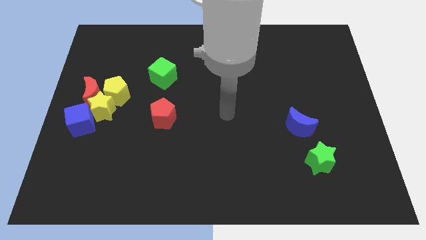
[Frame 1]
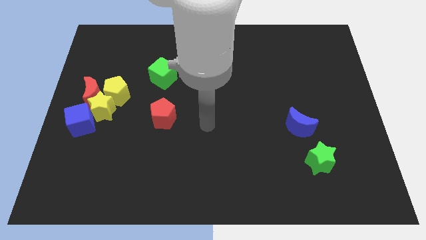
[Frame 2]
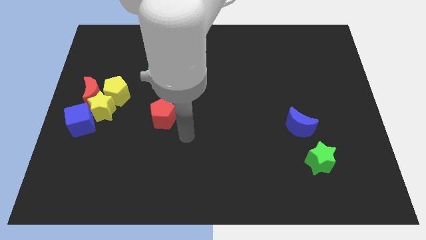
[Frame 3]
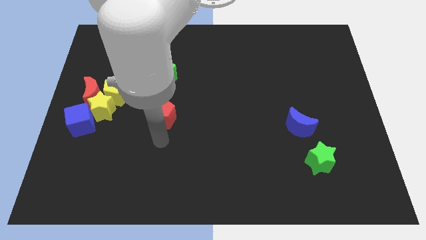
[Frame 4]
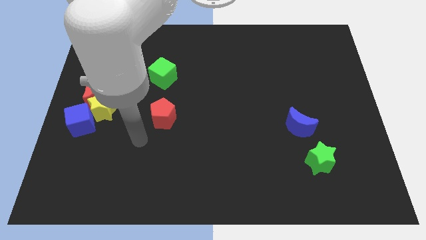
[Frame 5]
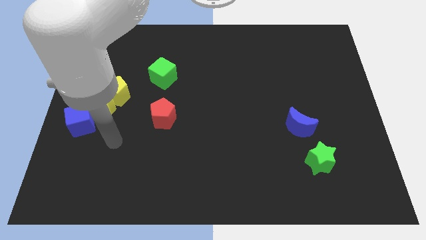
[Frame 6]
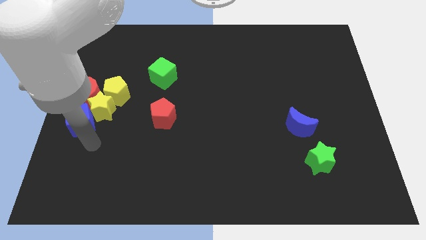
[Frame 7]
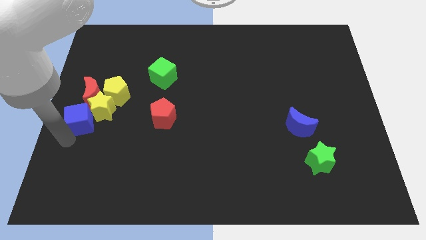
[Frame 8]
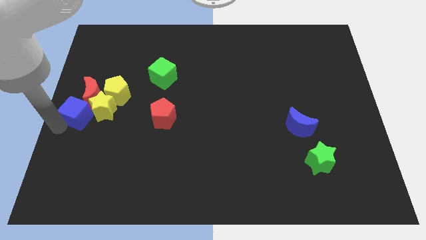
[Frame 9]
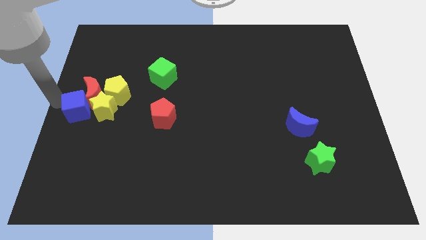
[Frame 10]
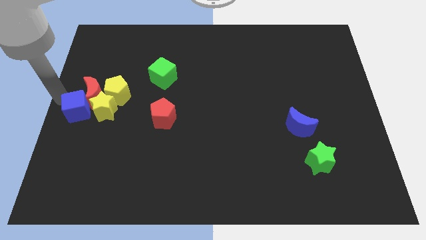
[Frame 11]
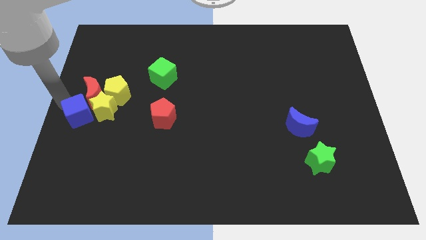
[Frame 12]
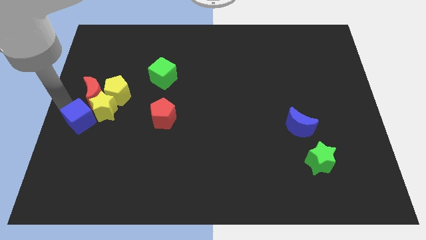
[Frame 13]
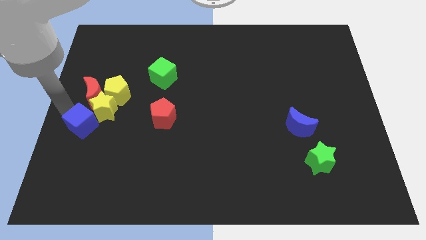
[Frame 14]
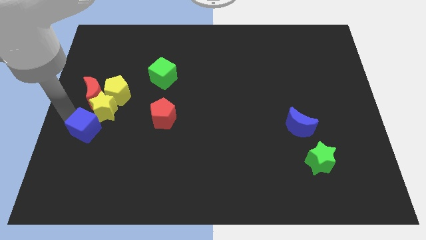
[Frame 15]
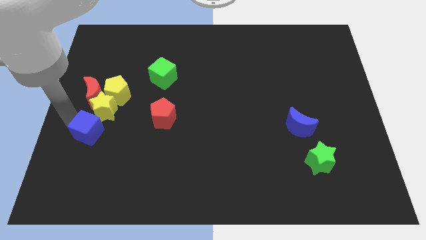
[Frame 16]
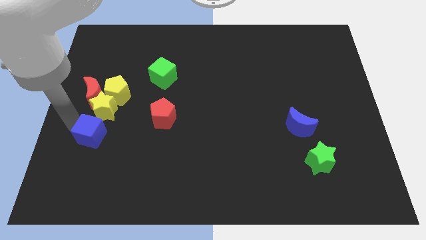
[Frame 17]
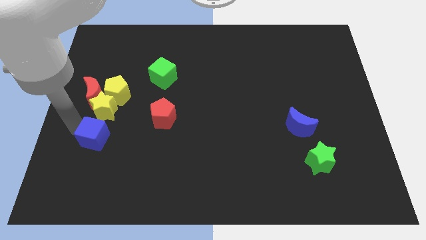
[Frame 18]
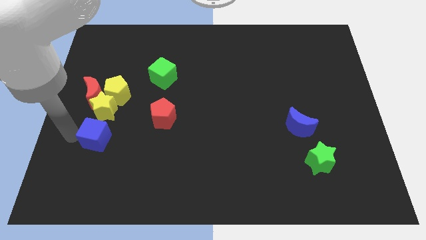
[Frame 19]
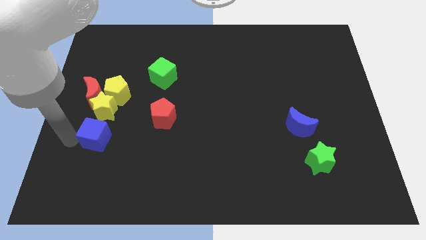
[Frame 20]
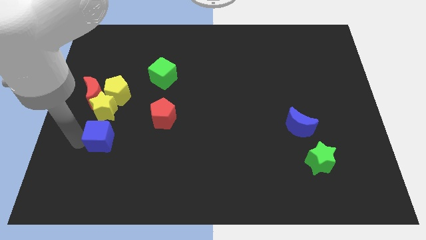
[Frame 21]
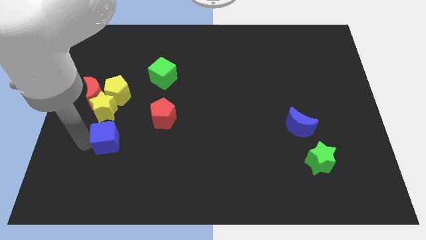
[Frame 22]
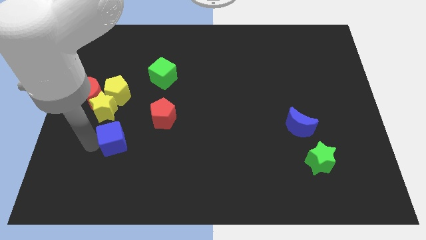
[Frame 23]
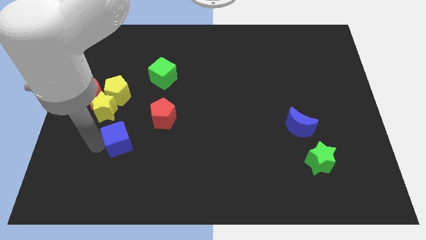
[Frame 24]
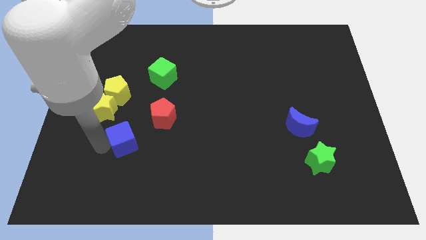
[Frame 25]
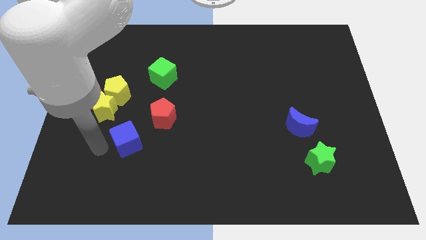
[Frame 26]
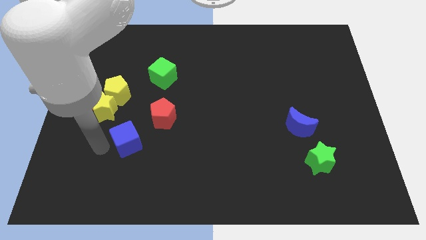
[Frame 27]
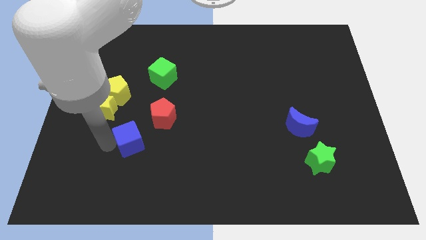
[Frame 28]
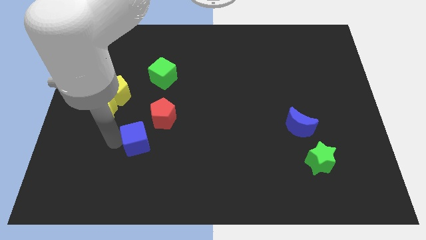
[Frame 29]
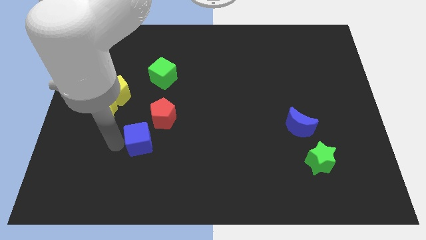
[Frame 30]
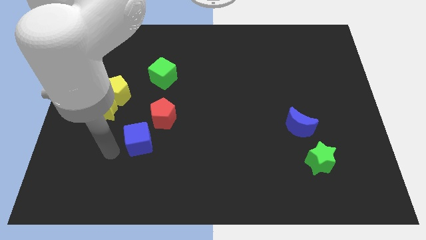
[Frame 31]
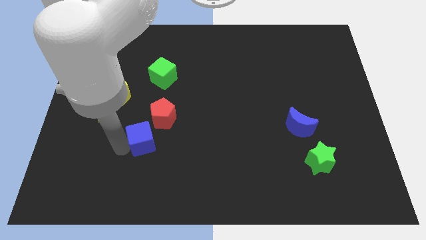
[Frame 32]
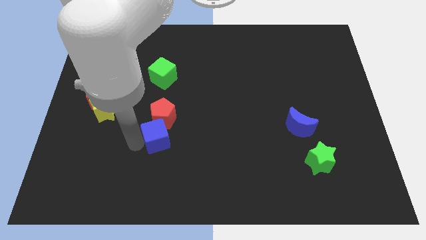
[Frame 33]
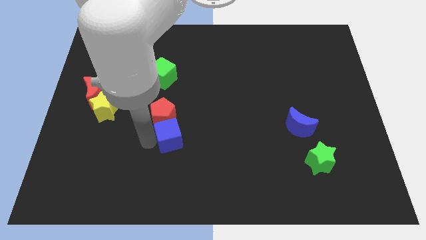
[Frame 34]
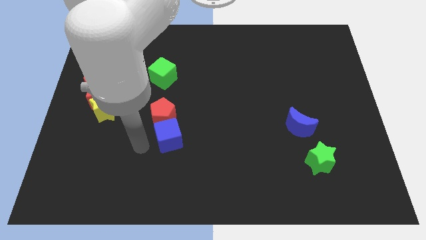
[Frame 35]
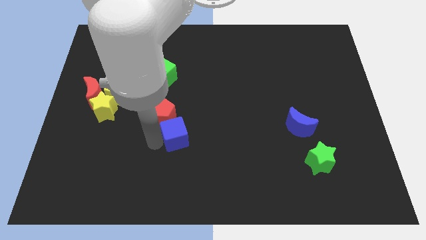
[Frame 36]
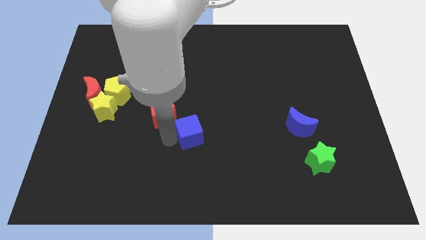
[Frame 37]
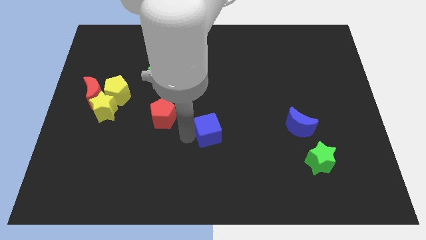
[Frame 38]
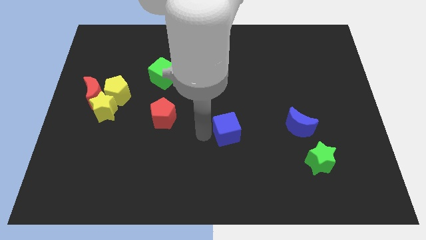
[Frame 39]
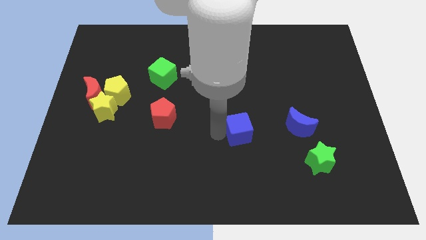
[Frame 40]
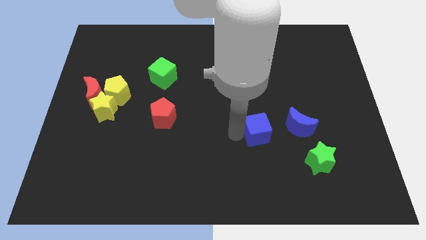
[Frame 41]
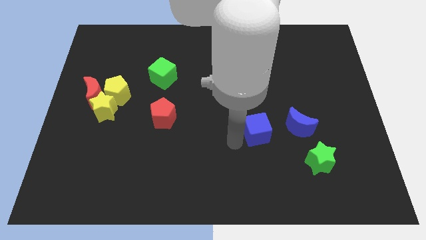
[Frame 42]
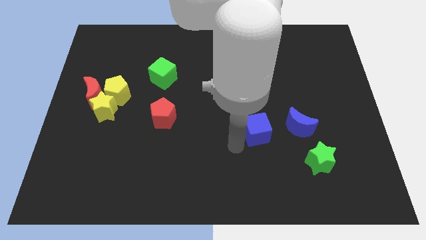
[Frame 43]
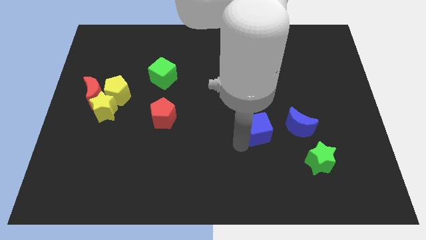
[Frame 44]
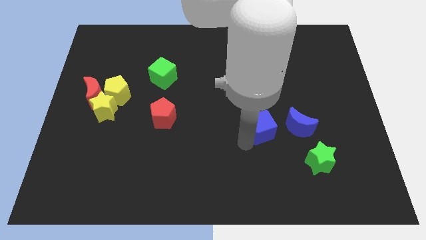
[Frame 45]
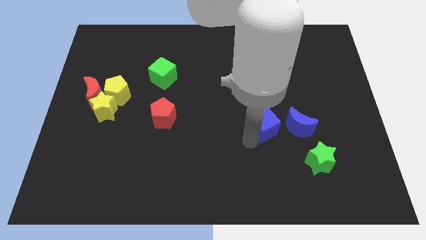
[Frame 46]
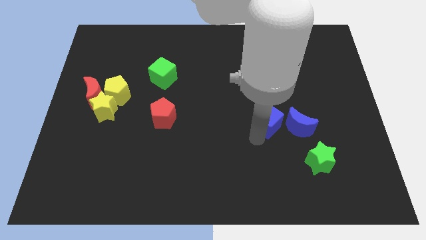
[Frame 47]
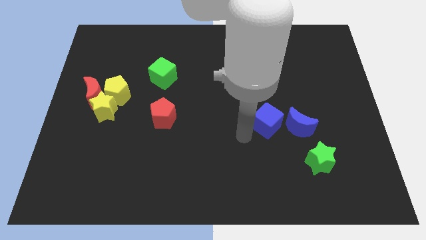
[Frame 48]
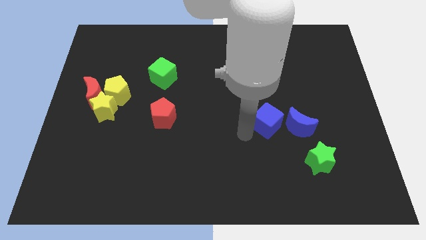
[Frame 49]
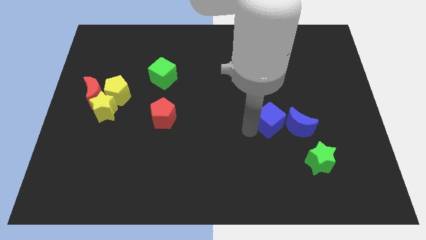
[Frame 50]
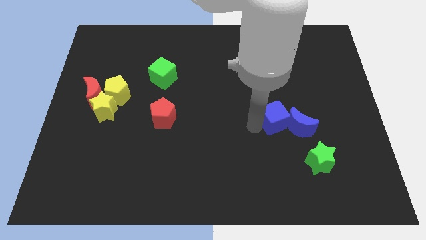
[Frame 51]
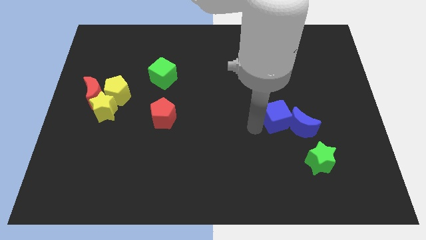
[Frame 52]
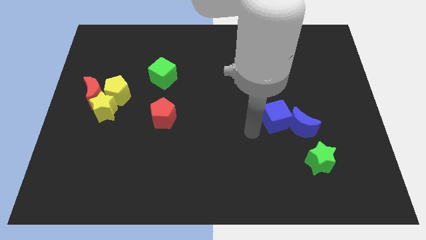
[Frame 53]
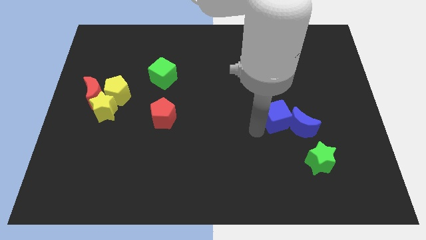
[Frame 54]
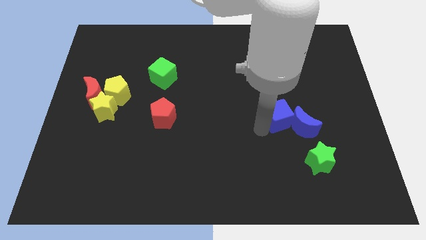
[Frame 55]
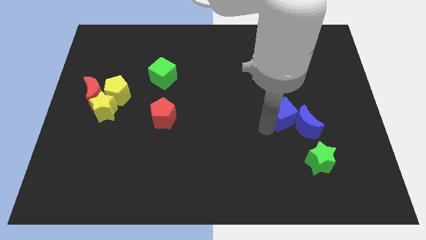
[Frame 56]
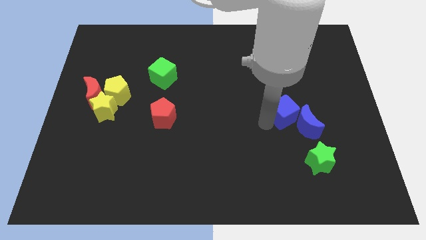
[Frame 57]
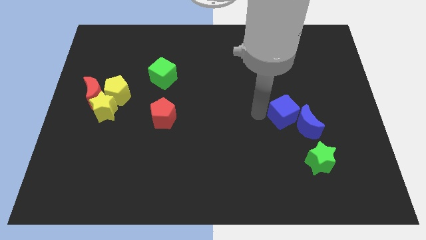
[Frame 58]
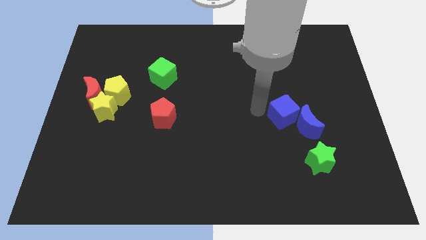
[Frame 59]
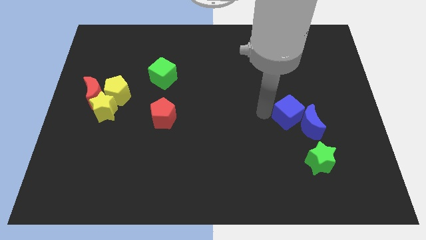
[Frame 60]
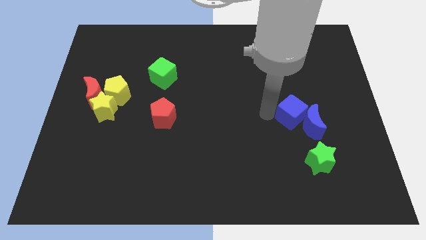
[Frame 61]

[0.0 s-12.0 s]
push the blue cube to the top of the green star

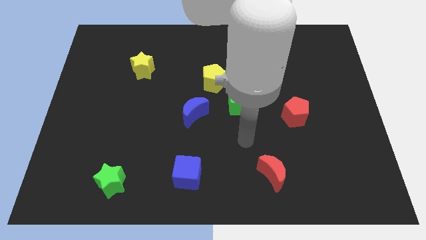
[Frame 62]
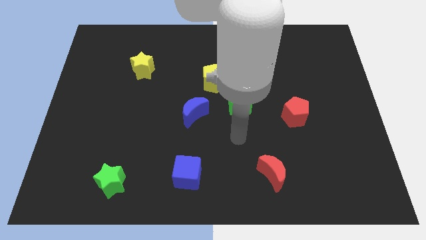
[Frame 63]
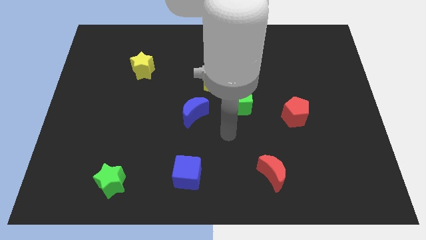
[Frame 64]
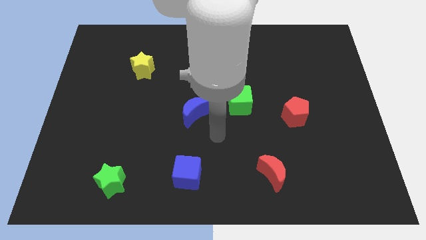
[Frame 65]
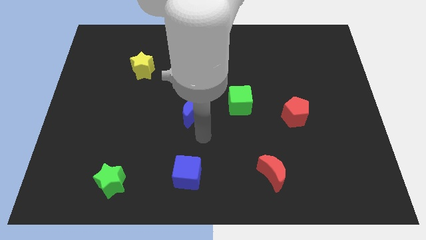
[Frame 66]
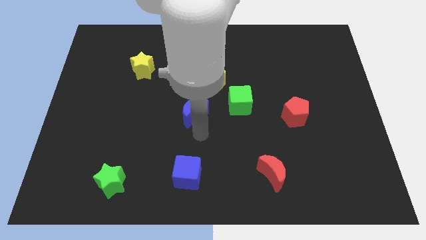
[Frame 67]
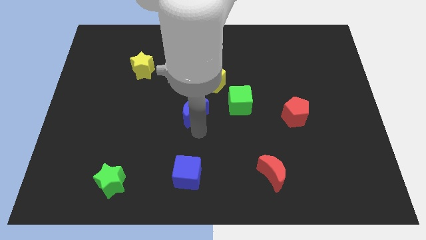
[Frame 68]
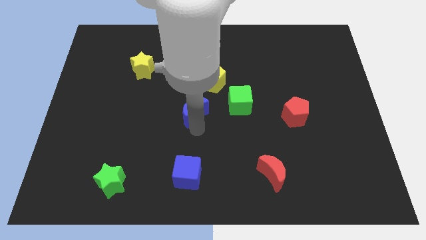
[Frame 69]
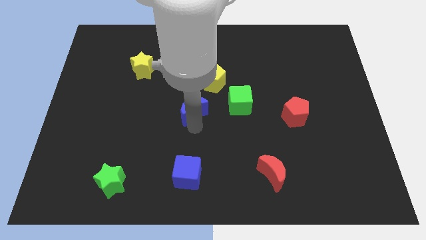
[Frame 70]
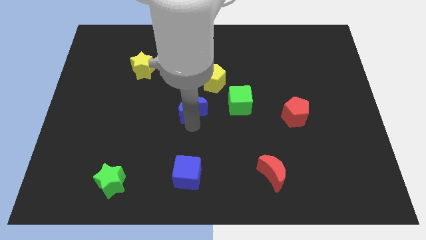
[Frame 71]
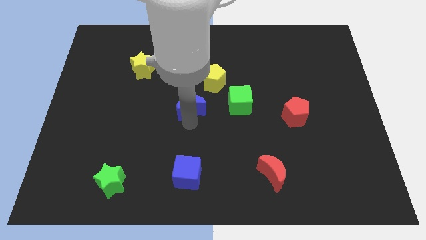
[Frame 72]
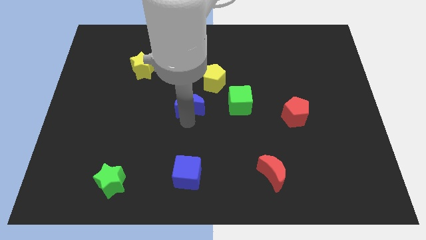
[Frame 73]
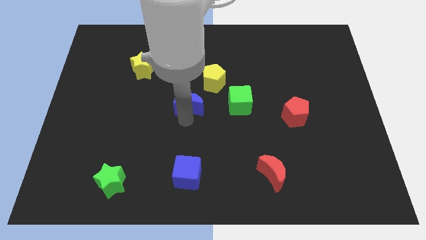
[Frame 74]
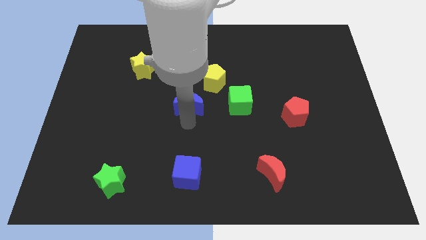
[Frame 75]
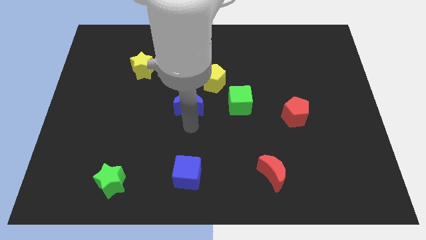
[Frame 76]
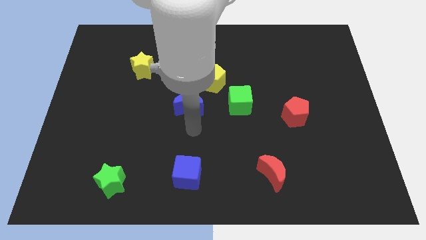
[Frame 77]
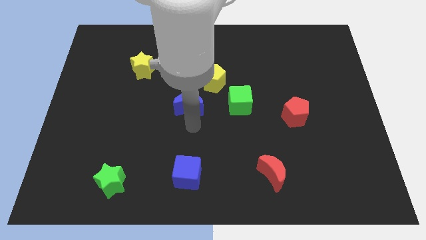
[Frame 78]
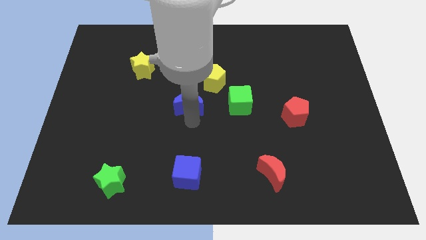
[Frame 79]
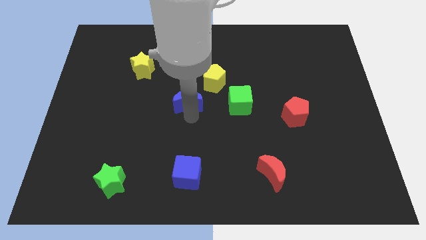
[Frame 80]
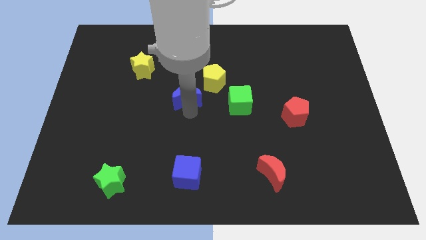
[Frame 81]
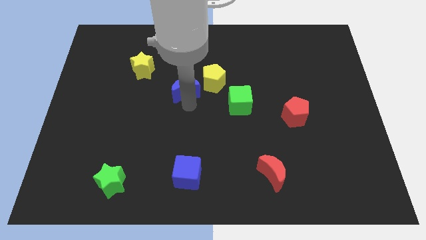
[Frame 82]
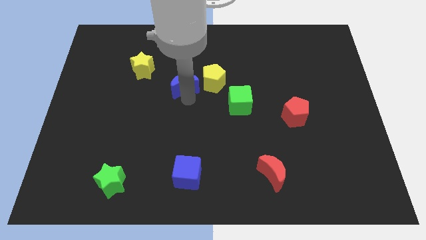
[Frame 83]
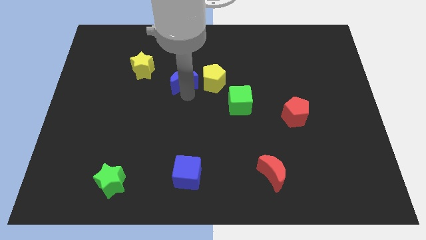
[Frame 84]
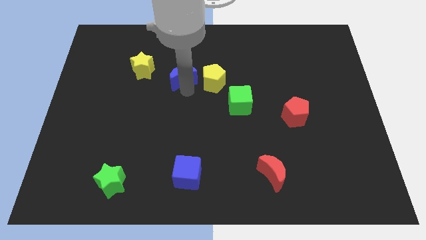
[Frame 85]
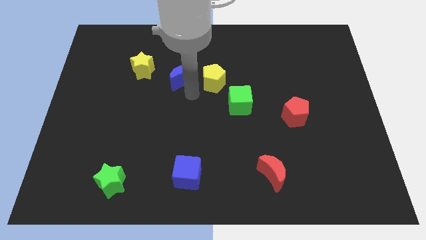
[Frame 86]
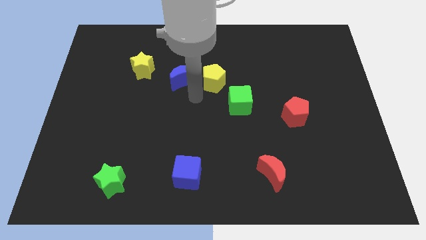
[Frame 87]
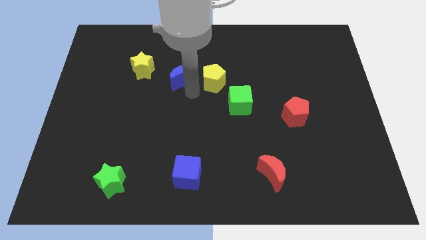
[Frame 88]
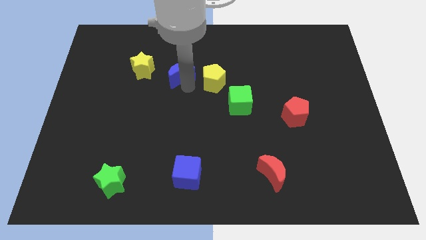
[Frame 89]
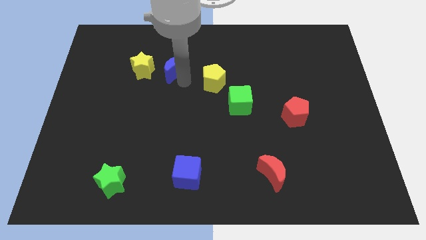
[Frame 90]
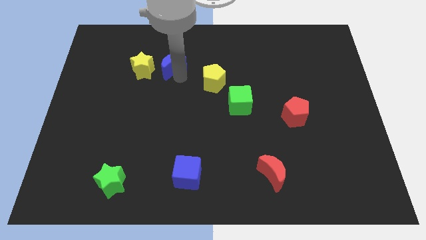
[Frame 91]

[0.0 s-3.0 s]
put the blue moon to the top right of the yellow star
